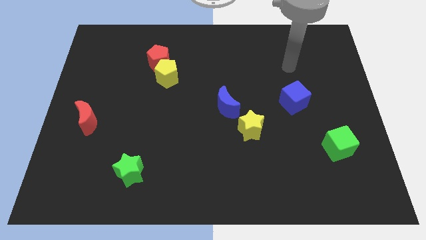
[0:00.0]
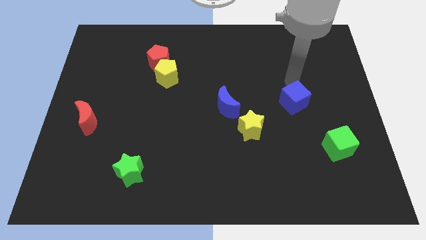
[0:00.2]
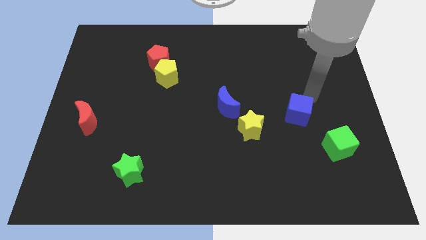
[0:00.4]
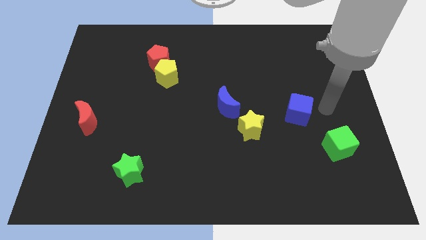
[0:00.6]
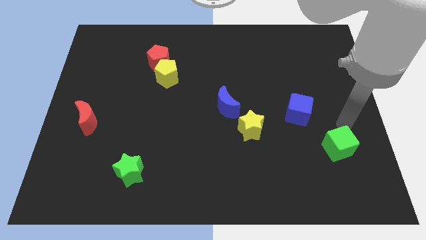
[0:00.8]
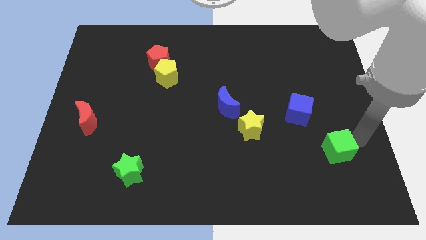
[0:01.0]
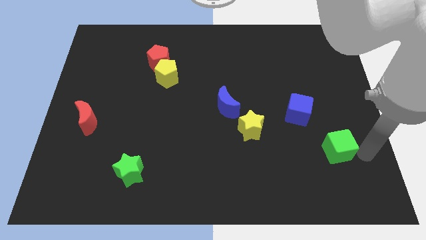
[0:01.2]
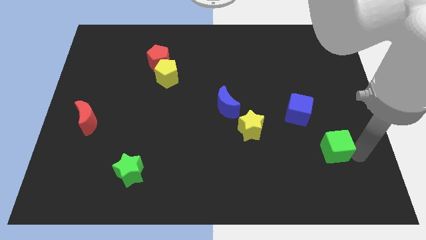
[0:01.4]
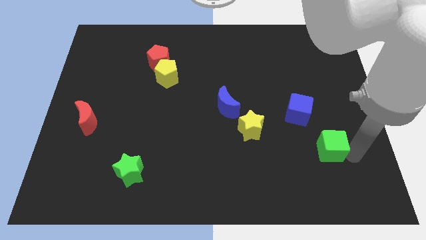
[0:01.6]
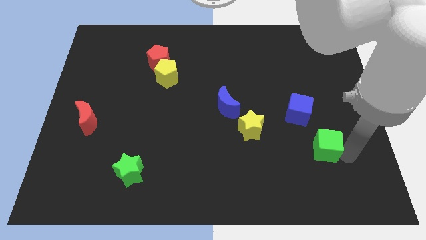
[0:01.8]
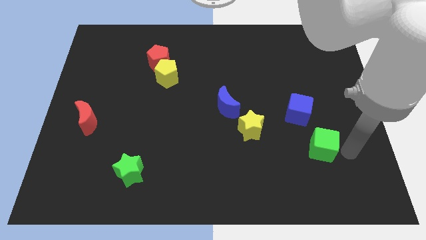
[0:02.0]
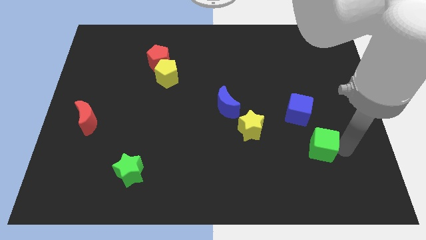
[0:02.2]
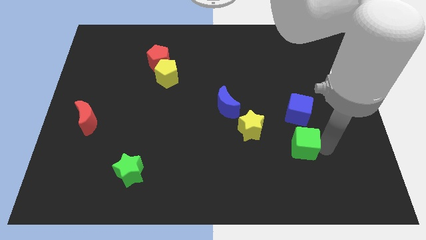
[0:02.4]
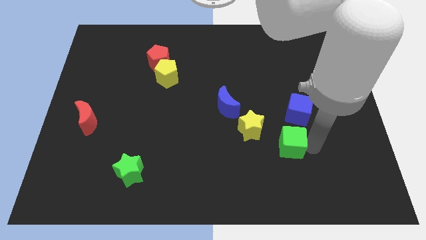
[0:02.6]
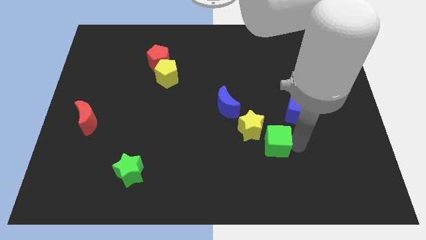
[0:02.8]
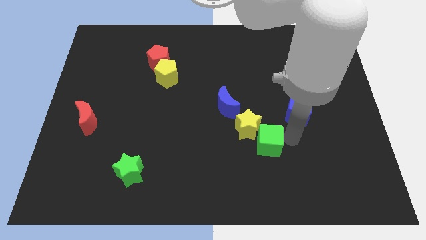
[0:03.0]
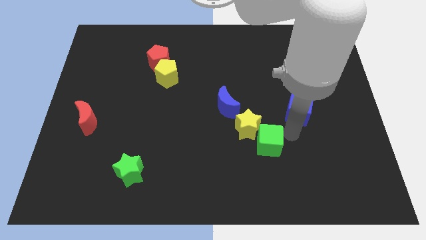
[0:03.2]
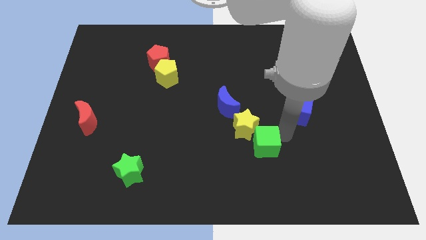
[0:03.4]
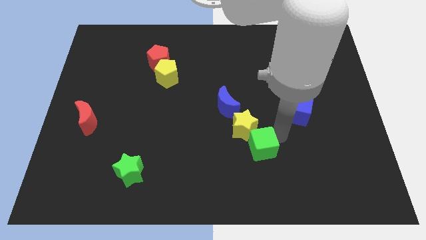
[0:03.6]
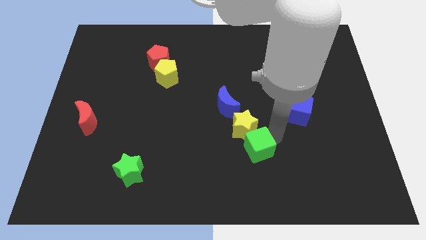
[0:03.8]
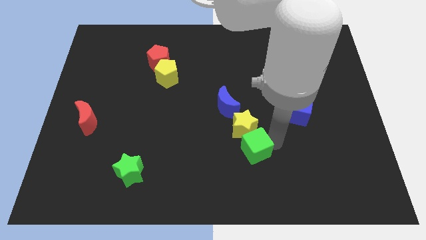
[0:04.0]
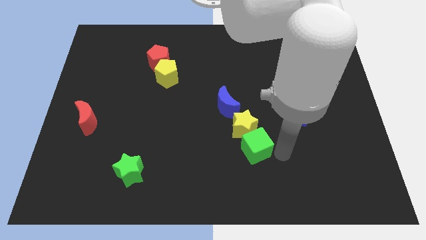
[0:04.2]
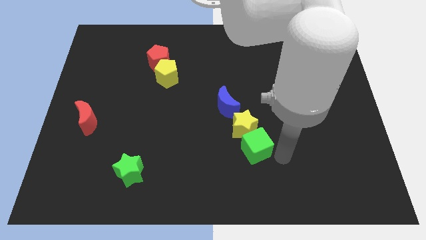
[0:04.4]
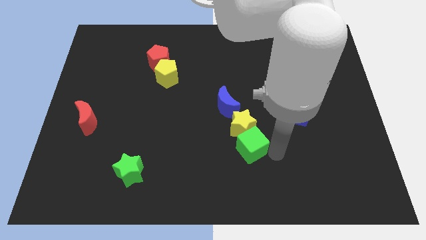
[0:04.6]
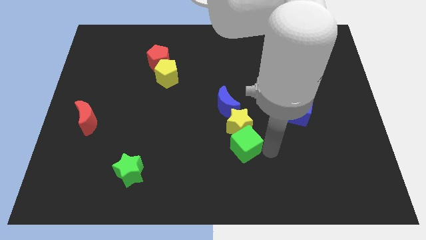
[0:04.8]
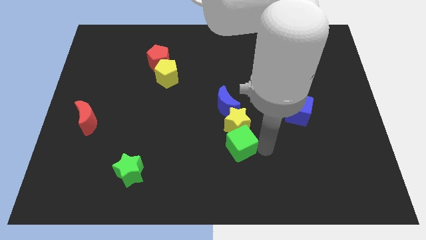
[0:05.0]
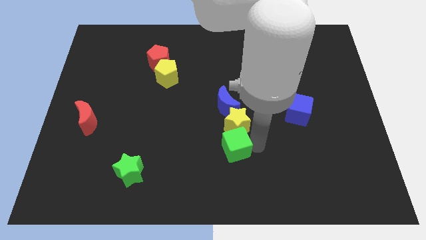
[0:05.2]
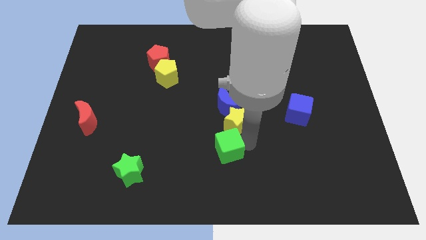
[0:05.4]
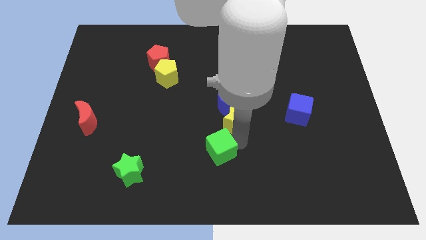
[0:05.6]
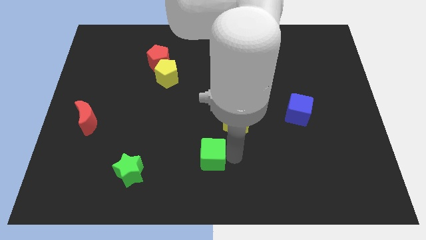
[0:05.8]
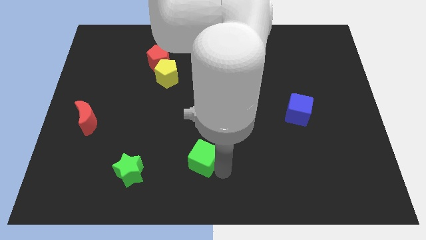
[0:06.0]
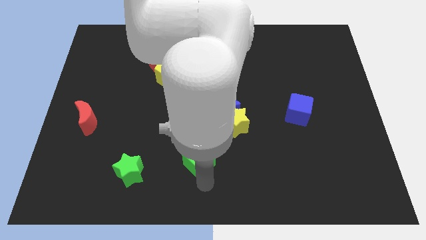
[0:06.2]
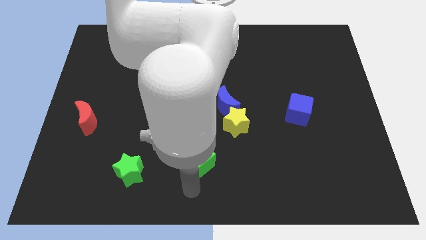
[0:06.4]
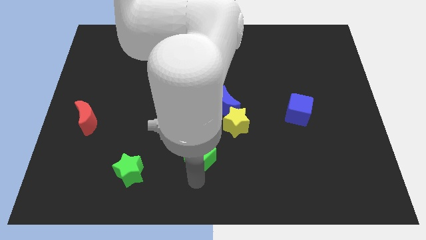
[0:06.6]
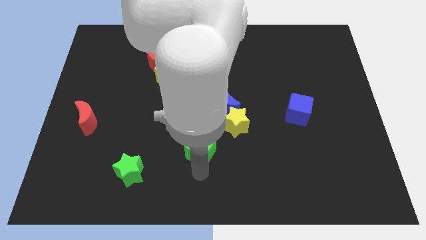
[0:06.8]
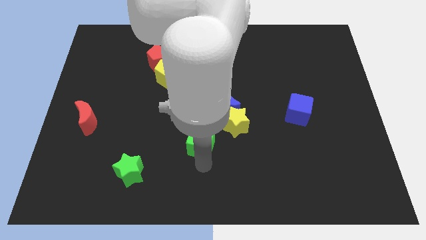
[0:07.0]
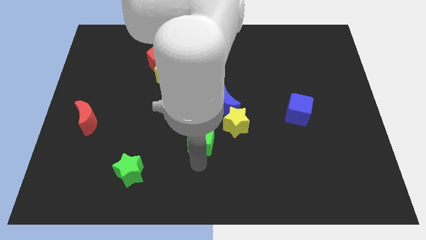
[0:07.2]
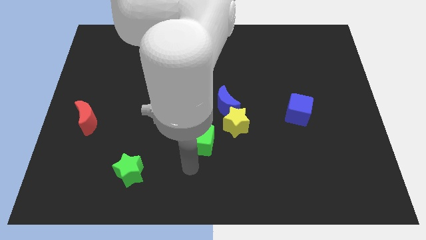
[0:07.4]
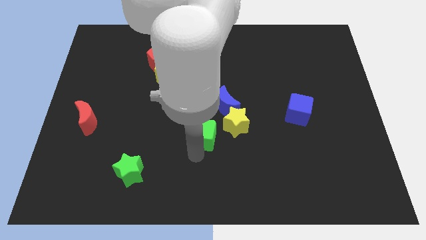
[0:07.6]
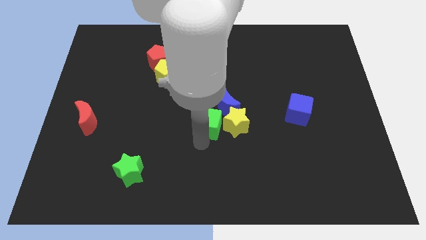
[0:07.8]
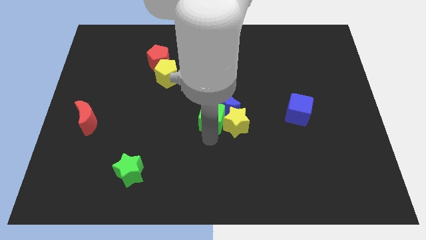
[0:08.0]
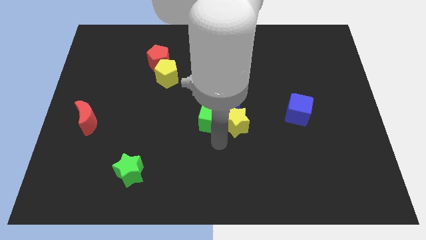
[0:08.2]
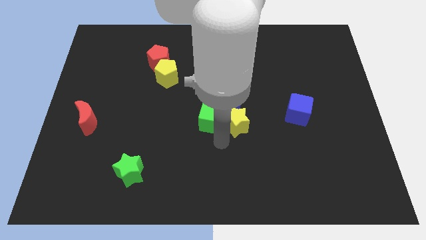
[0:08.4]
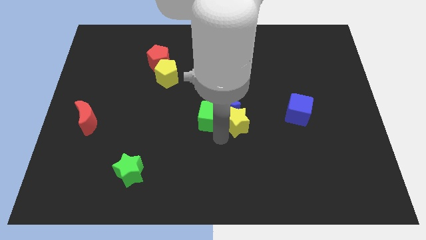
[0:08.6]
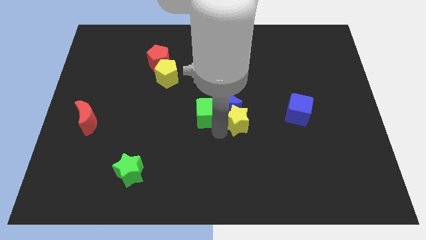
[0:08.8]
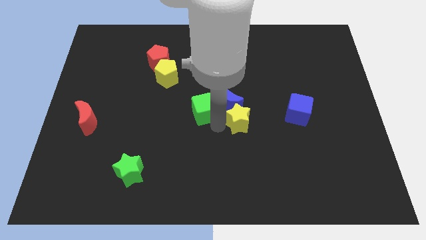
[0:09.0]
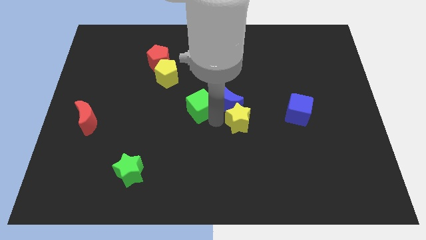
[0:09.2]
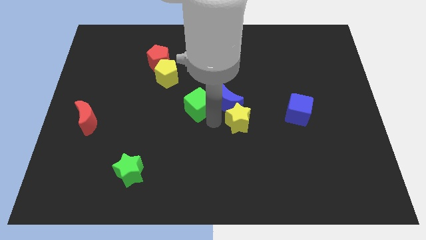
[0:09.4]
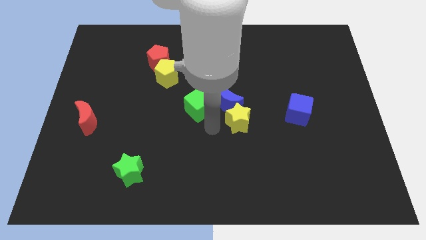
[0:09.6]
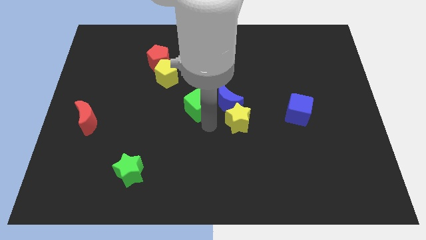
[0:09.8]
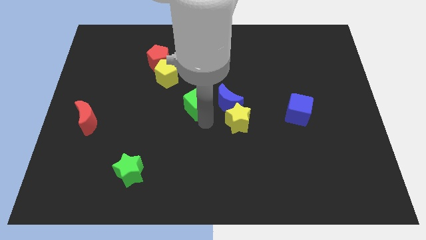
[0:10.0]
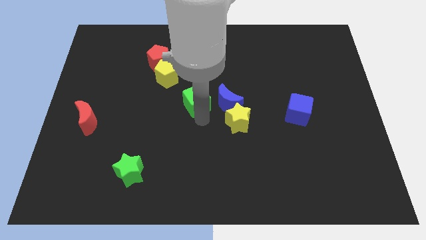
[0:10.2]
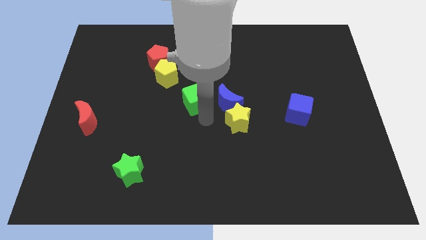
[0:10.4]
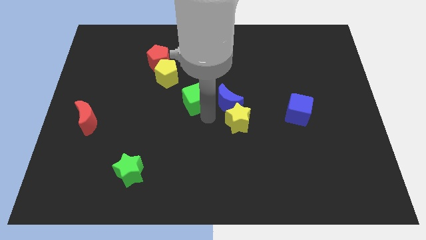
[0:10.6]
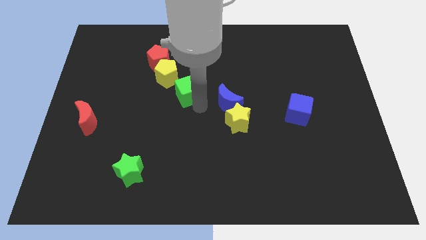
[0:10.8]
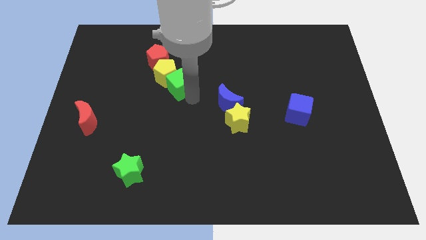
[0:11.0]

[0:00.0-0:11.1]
move the green cube close to the yellow pentagon

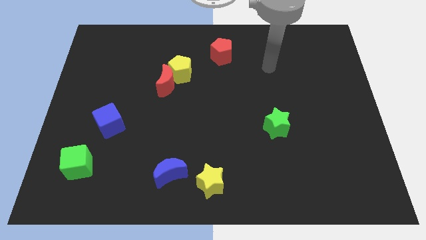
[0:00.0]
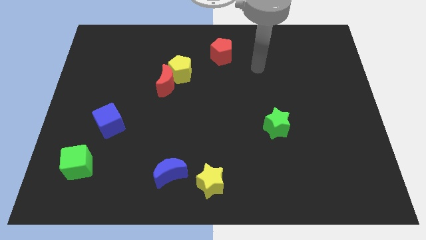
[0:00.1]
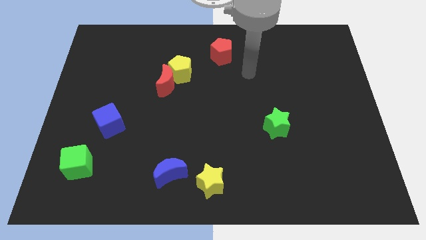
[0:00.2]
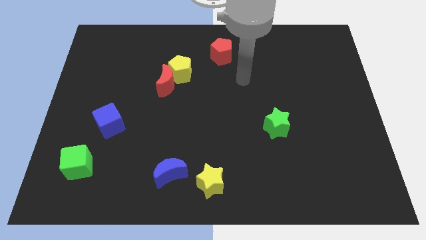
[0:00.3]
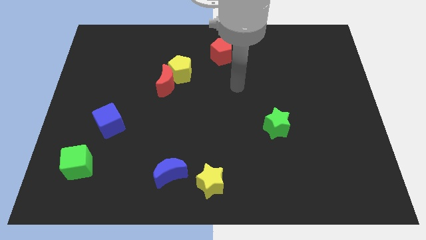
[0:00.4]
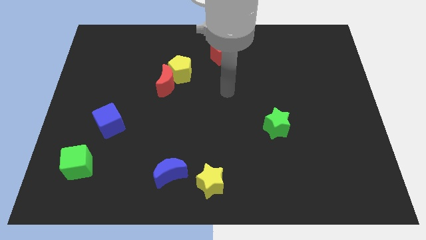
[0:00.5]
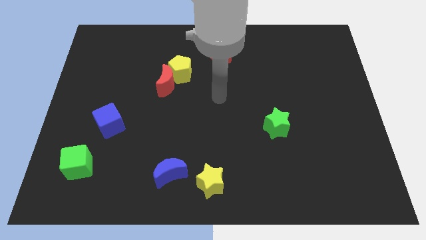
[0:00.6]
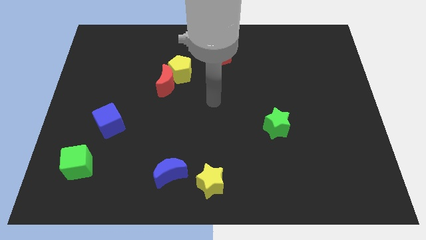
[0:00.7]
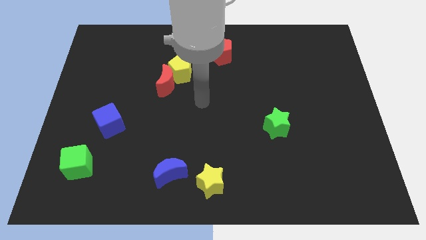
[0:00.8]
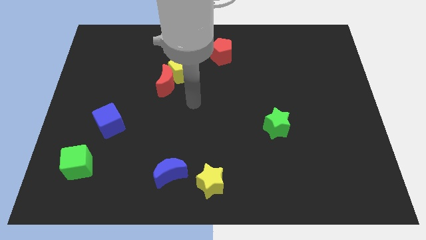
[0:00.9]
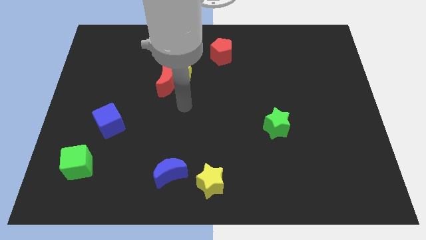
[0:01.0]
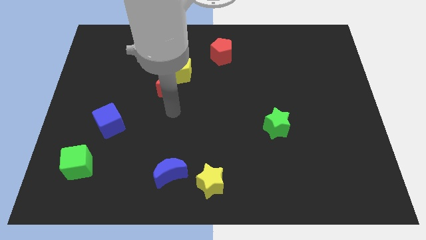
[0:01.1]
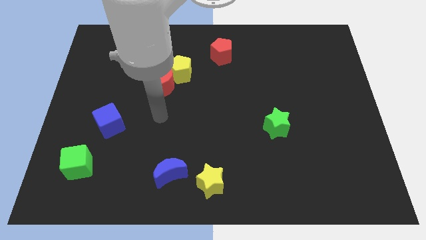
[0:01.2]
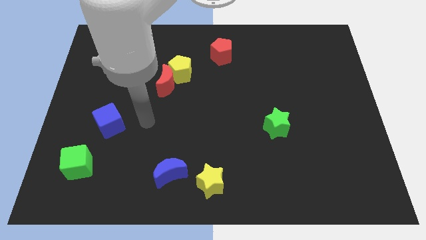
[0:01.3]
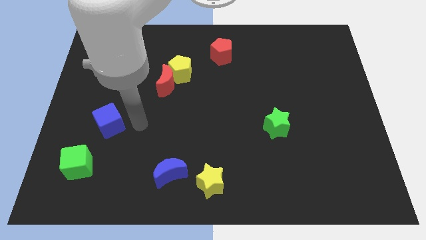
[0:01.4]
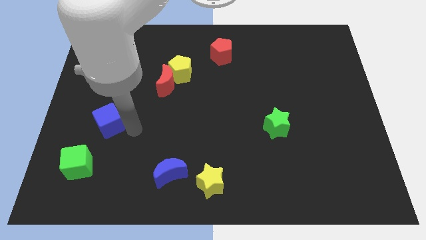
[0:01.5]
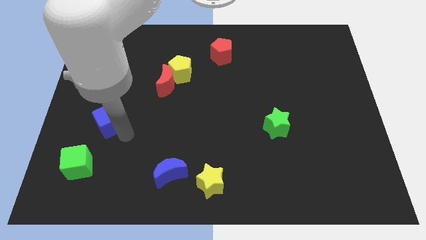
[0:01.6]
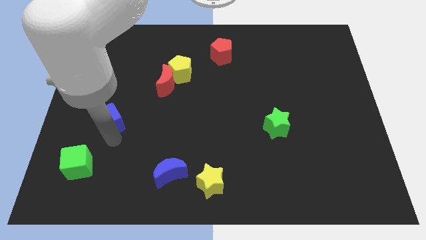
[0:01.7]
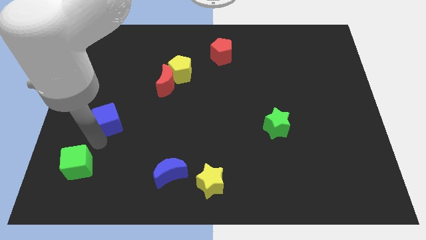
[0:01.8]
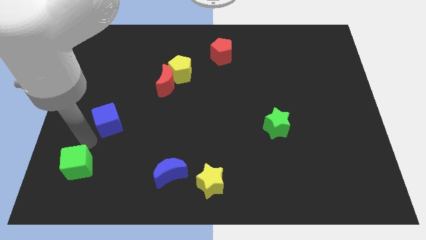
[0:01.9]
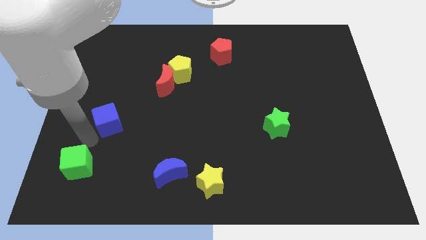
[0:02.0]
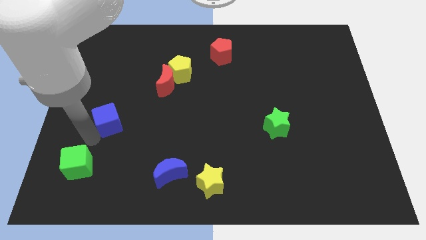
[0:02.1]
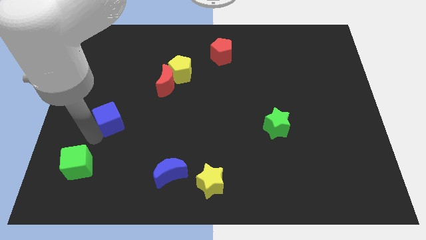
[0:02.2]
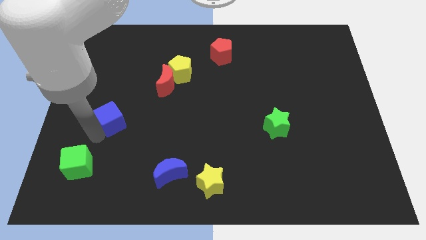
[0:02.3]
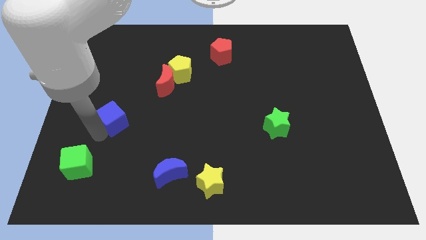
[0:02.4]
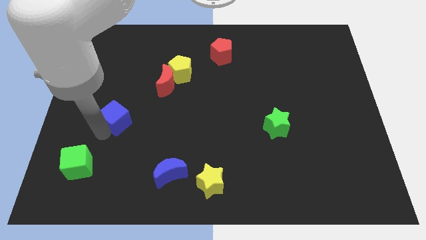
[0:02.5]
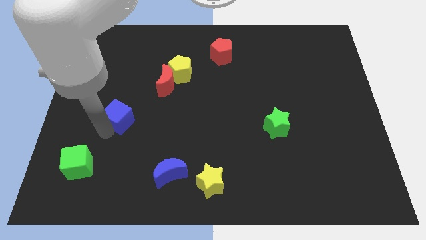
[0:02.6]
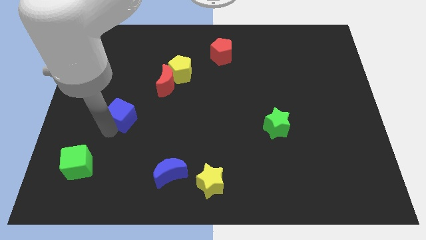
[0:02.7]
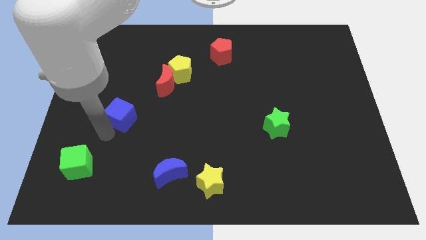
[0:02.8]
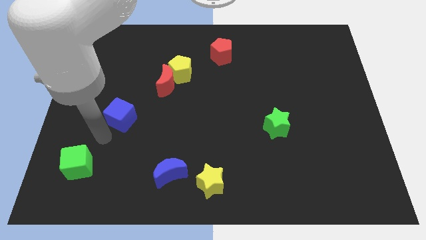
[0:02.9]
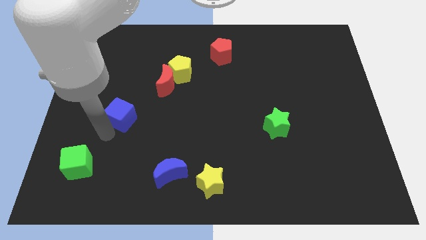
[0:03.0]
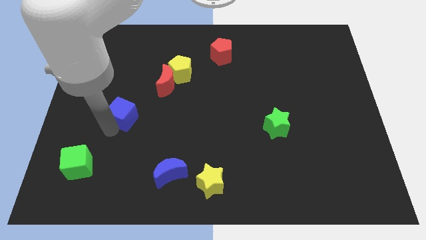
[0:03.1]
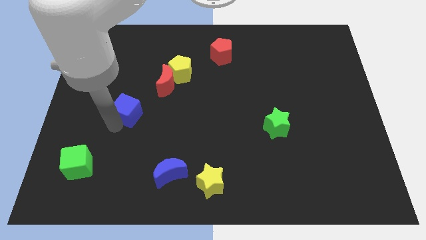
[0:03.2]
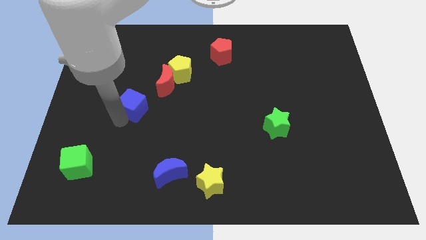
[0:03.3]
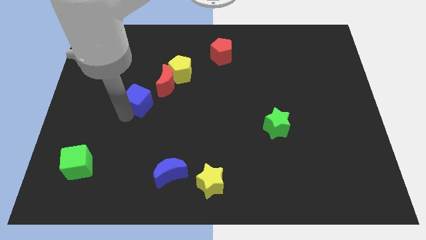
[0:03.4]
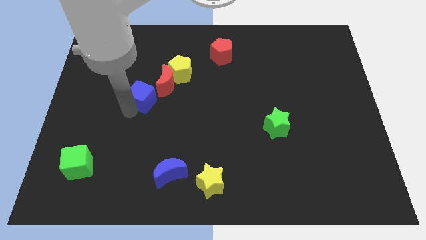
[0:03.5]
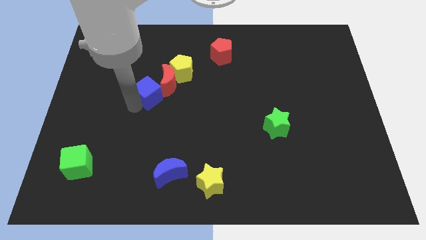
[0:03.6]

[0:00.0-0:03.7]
push the blue cube to the red moon
